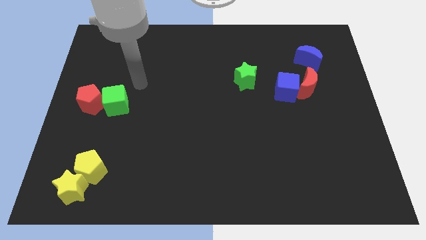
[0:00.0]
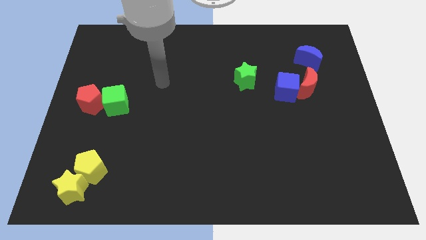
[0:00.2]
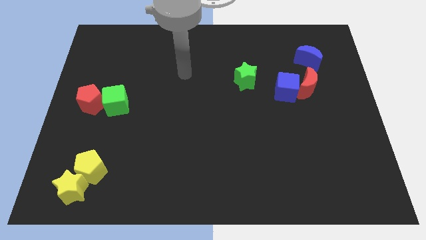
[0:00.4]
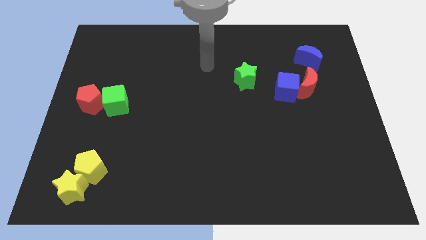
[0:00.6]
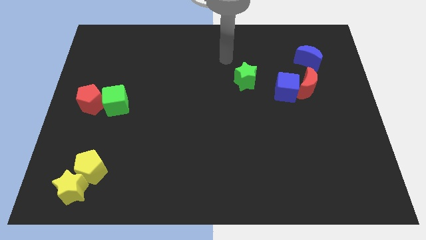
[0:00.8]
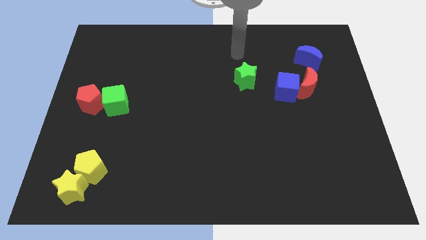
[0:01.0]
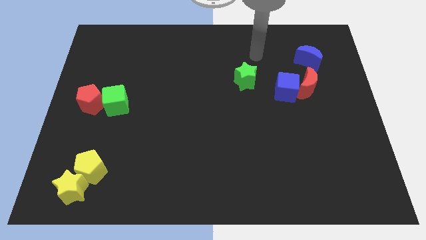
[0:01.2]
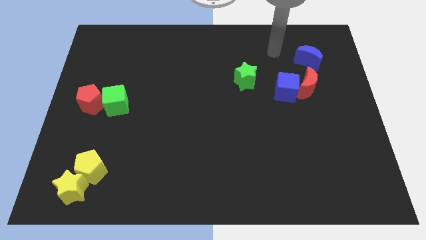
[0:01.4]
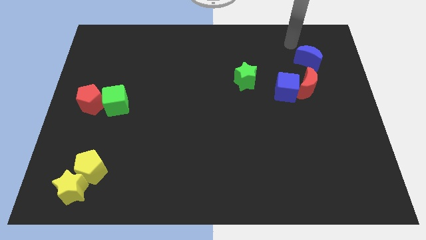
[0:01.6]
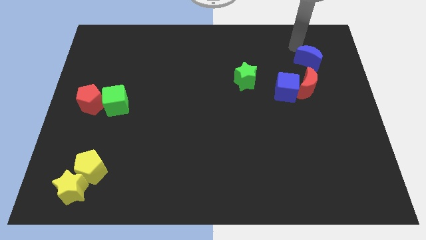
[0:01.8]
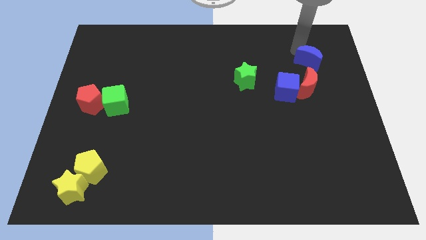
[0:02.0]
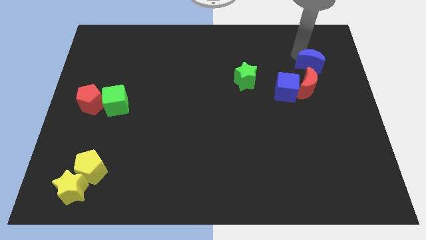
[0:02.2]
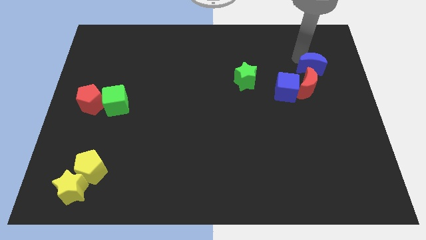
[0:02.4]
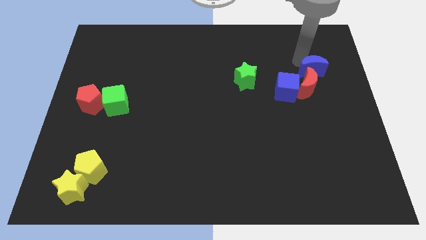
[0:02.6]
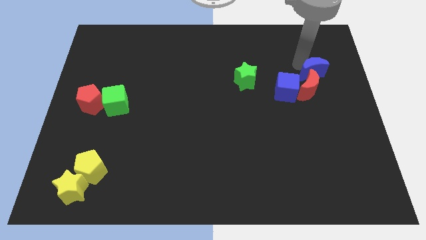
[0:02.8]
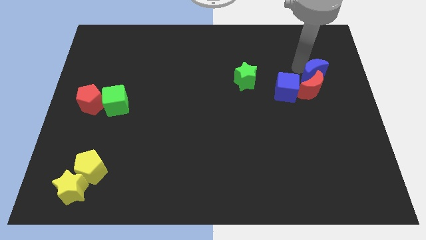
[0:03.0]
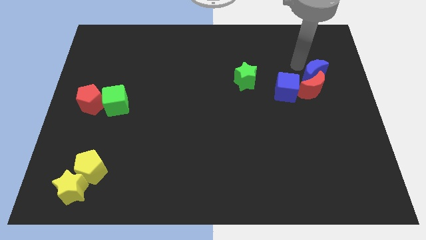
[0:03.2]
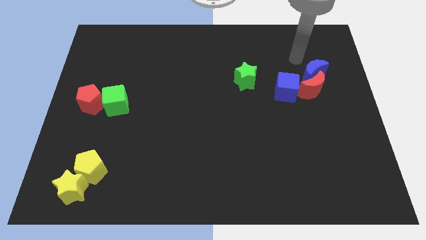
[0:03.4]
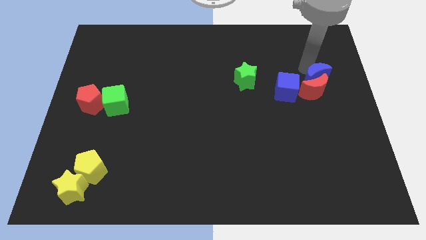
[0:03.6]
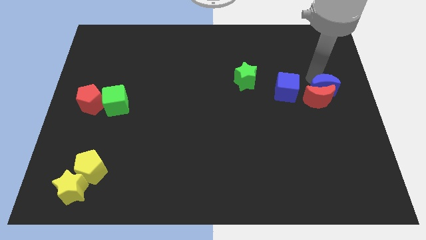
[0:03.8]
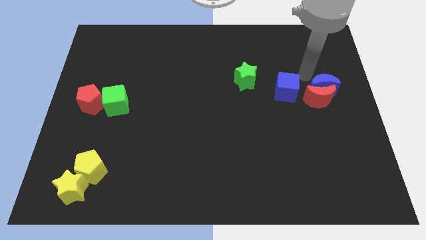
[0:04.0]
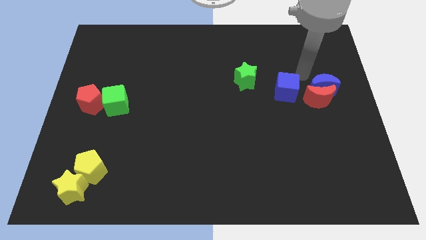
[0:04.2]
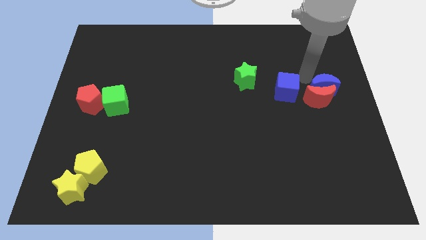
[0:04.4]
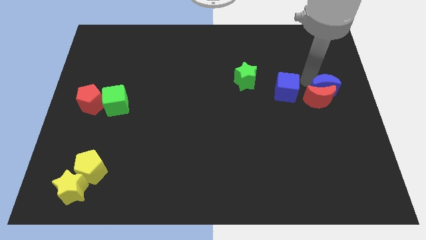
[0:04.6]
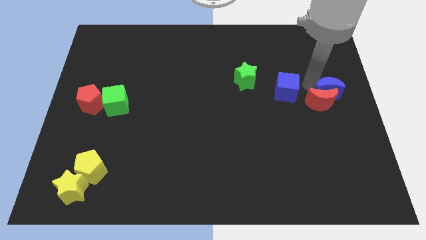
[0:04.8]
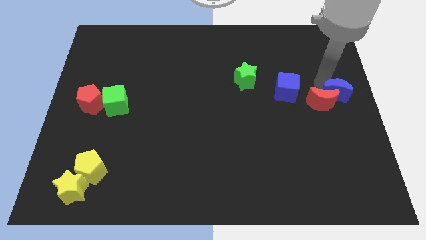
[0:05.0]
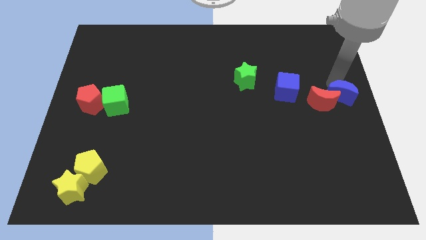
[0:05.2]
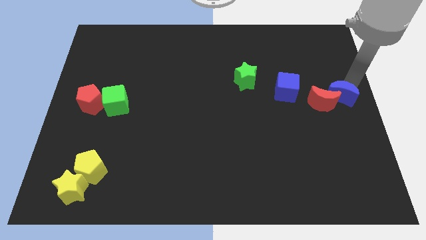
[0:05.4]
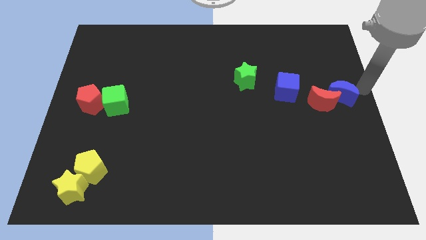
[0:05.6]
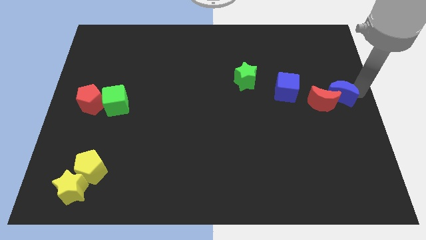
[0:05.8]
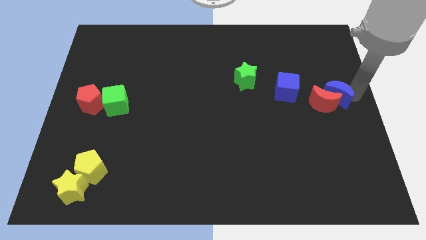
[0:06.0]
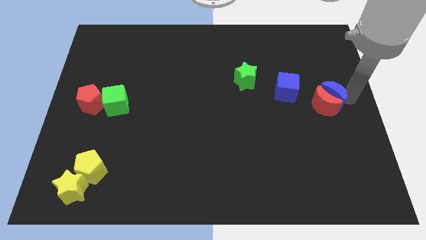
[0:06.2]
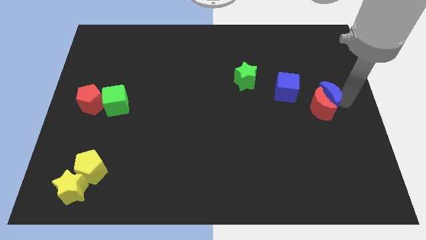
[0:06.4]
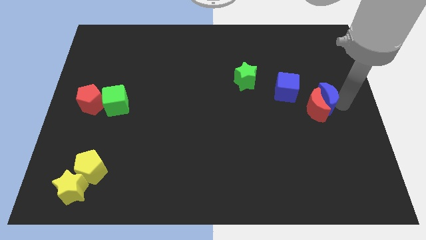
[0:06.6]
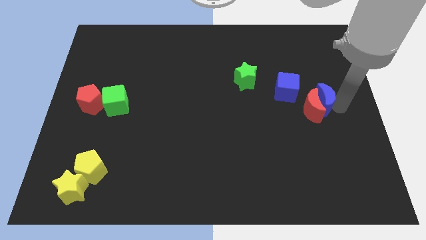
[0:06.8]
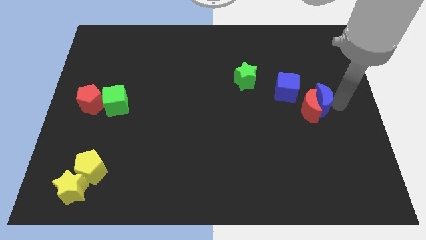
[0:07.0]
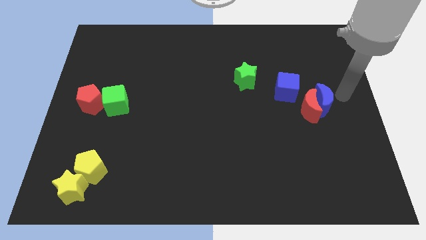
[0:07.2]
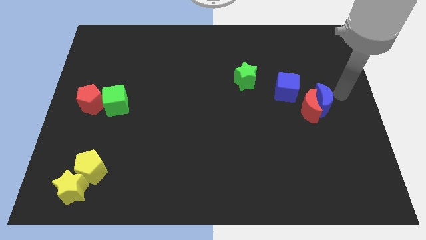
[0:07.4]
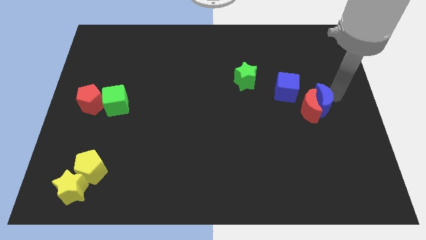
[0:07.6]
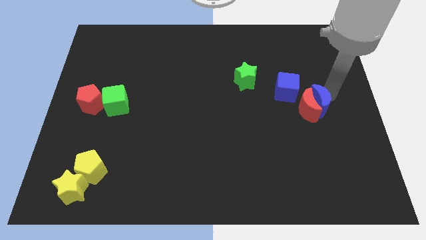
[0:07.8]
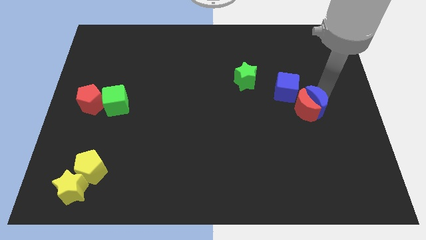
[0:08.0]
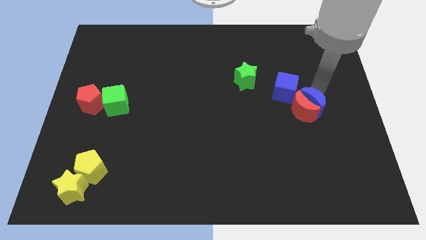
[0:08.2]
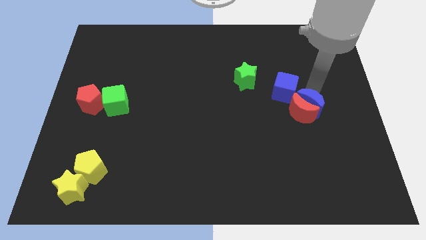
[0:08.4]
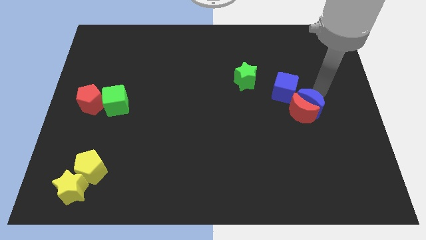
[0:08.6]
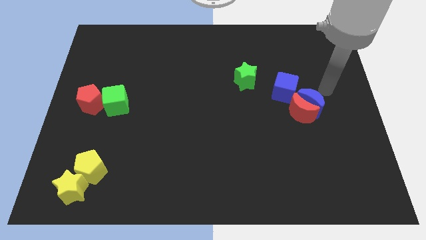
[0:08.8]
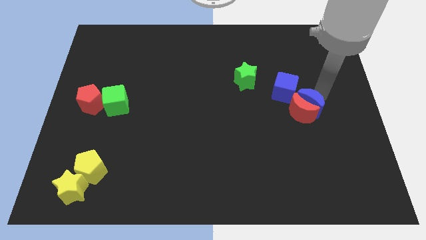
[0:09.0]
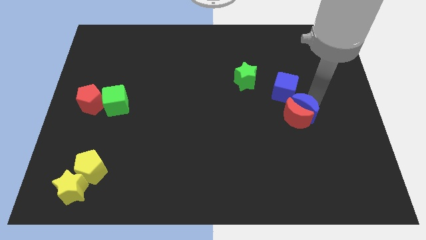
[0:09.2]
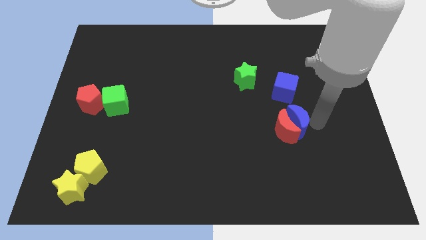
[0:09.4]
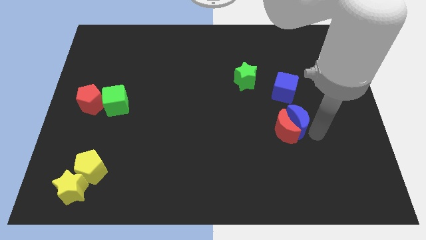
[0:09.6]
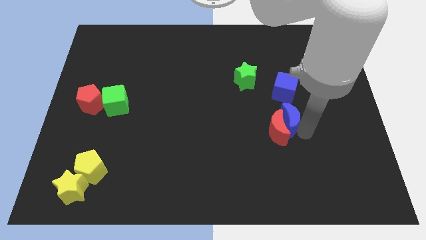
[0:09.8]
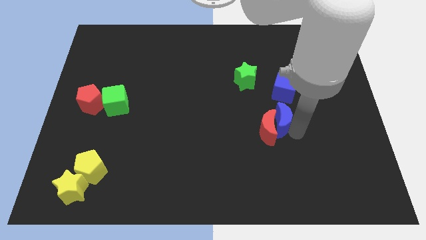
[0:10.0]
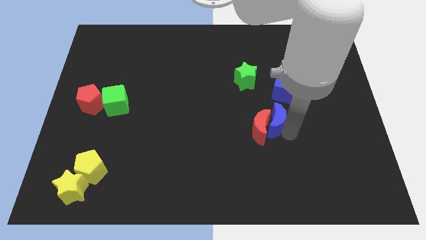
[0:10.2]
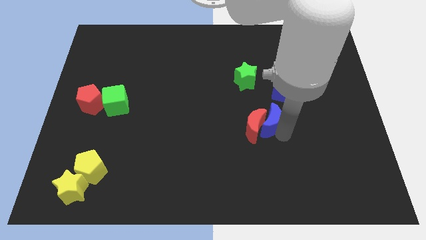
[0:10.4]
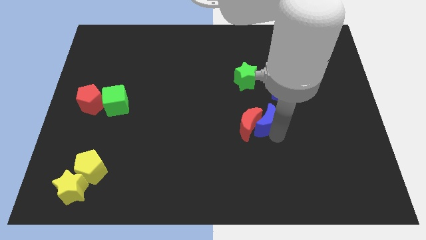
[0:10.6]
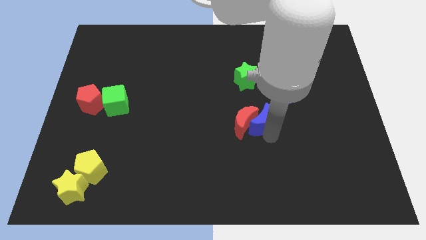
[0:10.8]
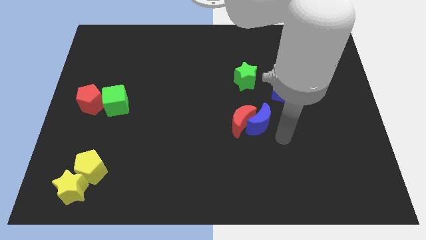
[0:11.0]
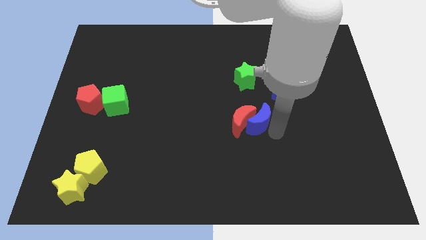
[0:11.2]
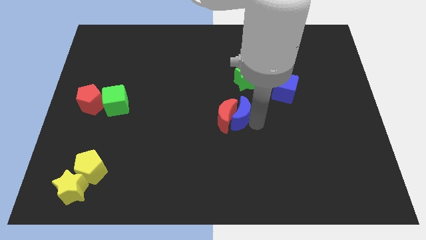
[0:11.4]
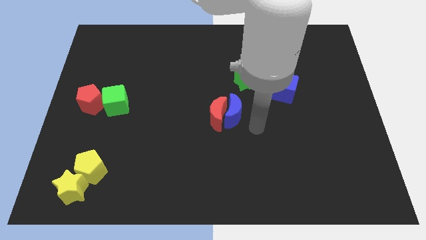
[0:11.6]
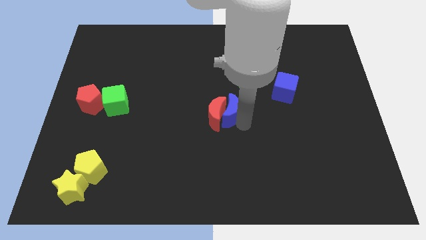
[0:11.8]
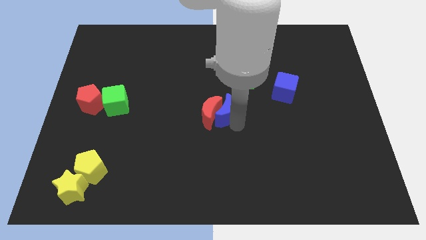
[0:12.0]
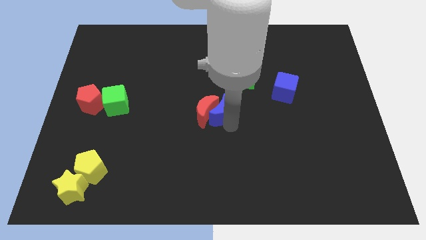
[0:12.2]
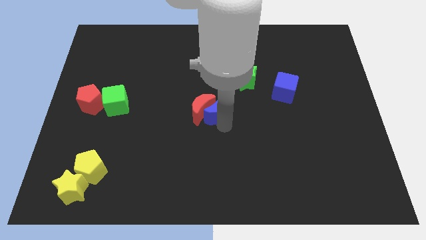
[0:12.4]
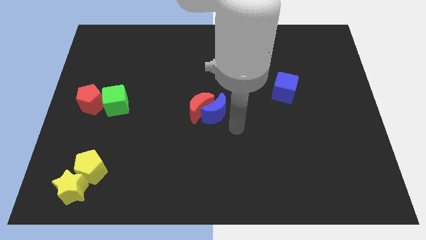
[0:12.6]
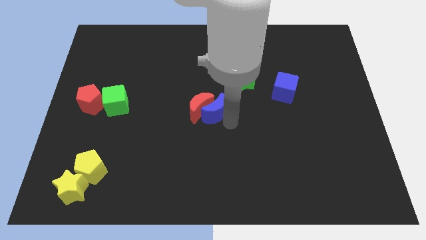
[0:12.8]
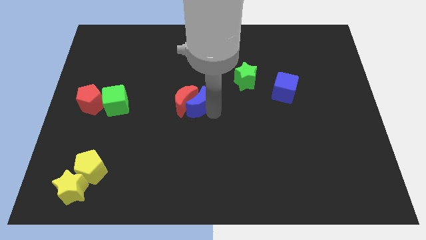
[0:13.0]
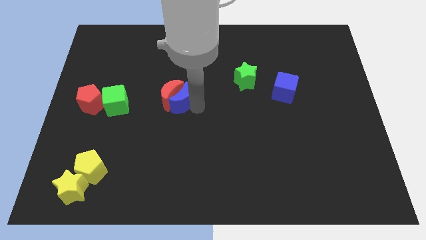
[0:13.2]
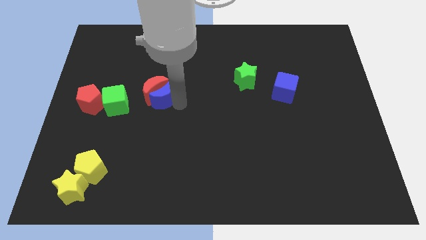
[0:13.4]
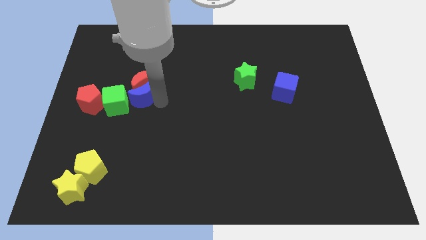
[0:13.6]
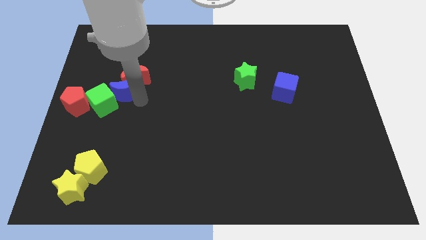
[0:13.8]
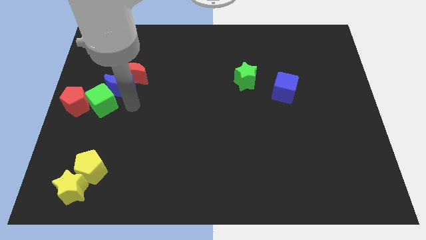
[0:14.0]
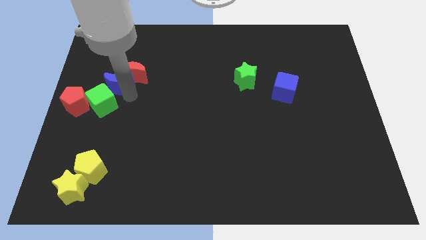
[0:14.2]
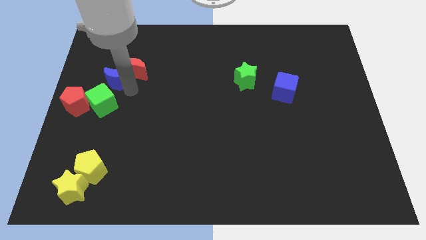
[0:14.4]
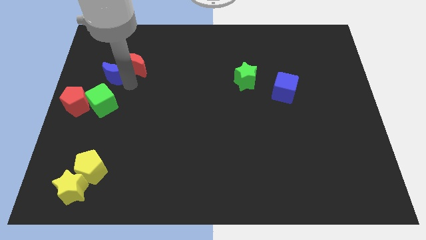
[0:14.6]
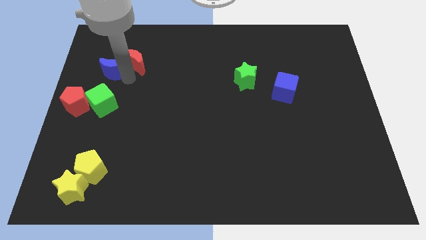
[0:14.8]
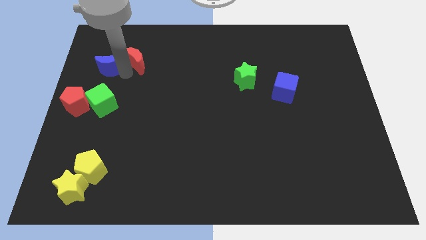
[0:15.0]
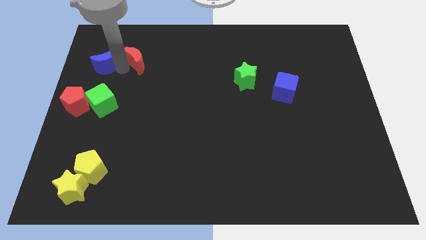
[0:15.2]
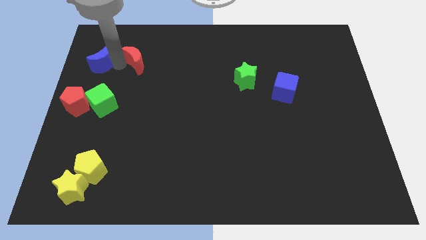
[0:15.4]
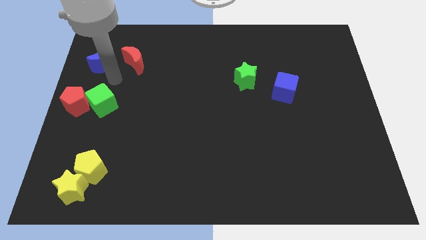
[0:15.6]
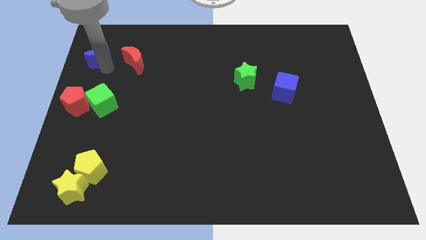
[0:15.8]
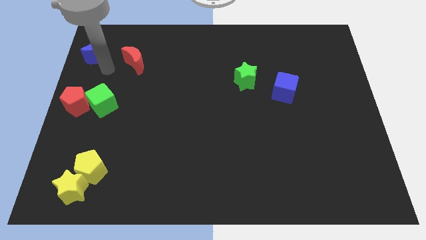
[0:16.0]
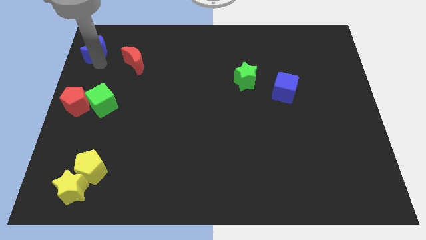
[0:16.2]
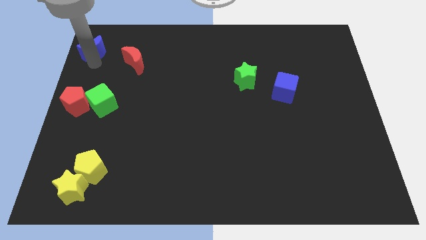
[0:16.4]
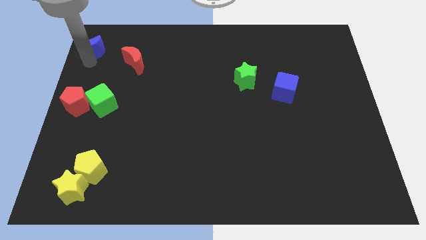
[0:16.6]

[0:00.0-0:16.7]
slide the blue moon to the upper left corner
